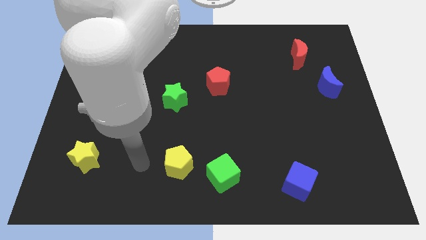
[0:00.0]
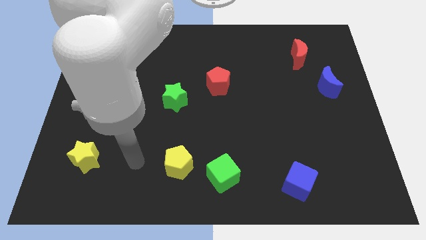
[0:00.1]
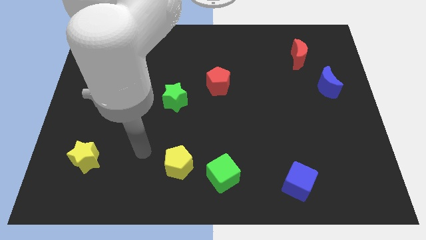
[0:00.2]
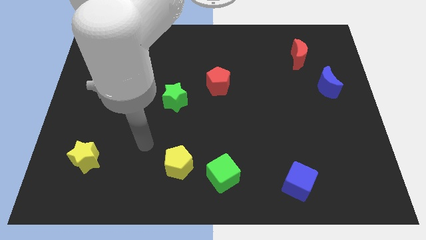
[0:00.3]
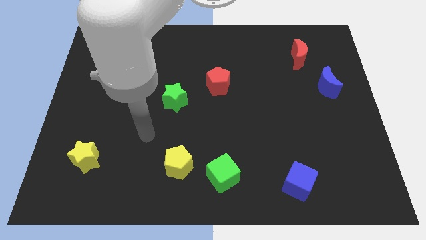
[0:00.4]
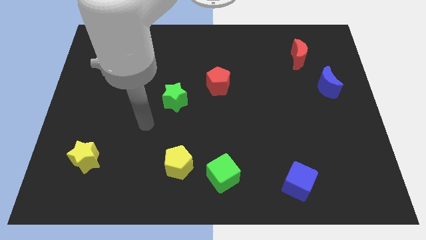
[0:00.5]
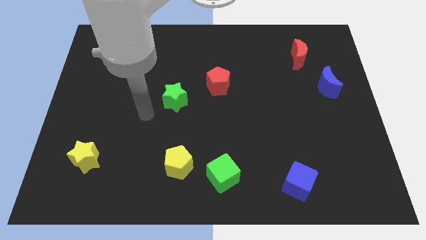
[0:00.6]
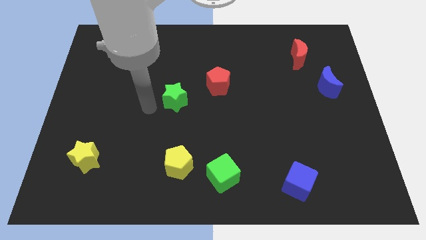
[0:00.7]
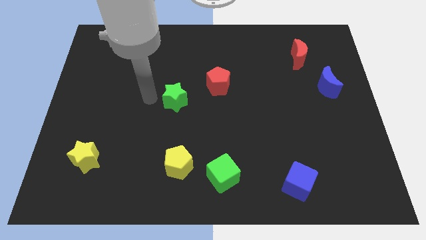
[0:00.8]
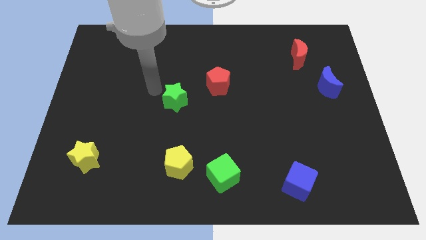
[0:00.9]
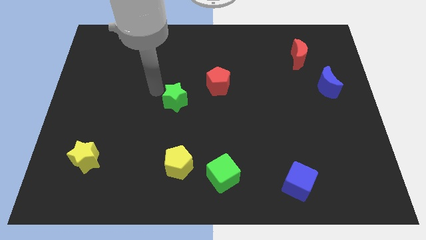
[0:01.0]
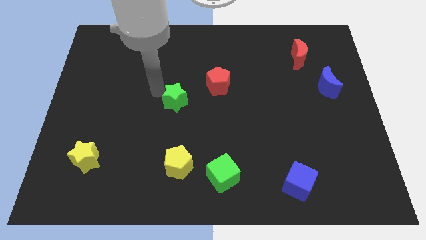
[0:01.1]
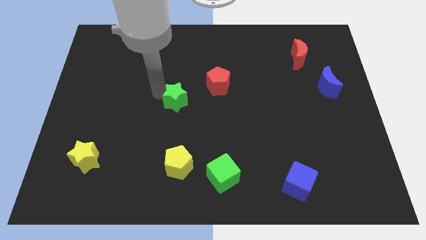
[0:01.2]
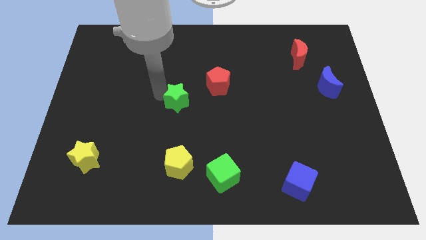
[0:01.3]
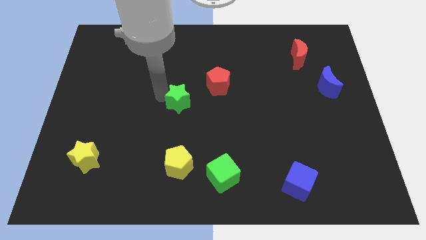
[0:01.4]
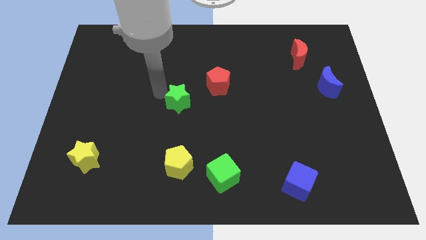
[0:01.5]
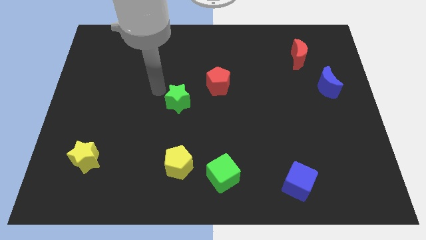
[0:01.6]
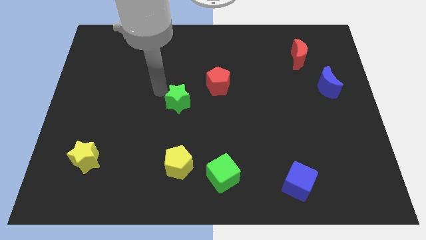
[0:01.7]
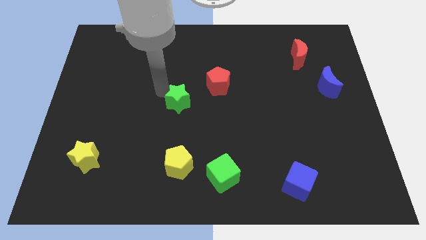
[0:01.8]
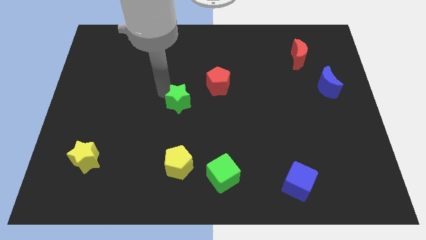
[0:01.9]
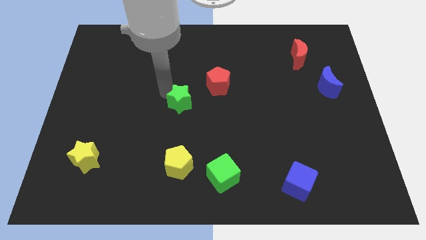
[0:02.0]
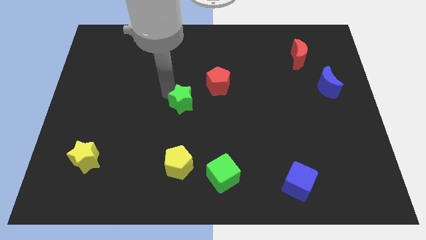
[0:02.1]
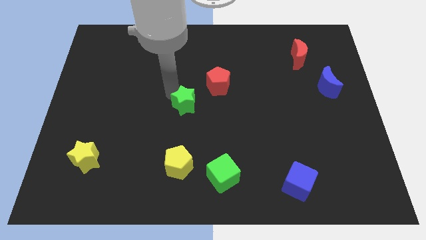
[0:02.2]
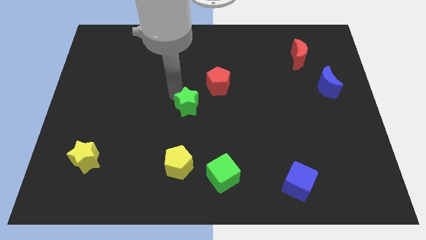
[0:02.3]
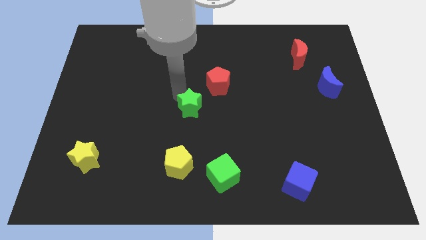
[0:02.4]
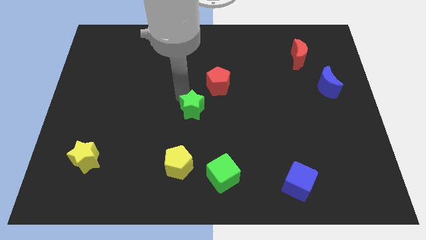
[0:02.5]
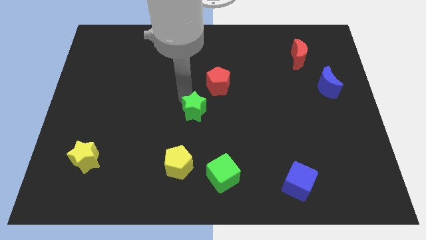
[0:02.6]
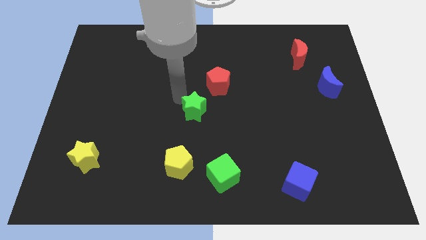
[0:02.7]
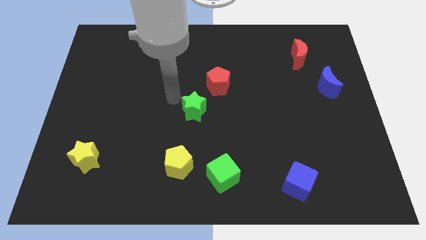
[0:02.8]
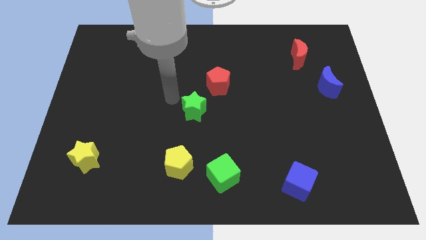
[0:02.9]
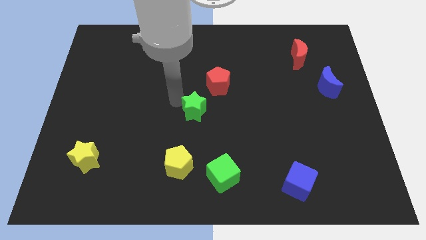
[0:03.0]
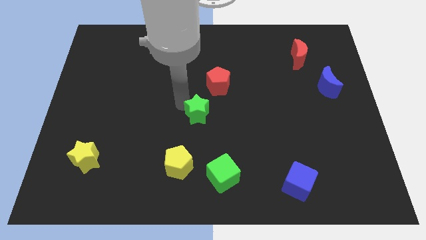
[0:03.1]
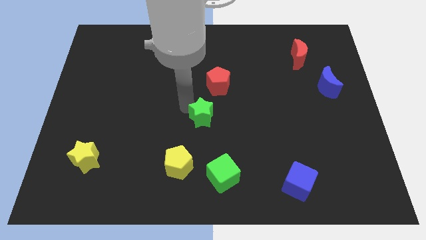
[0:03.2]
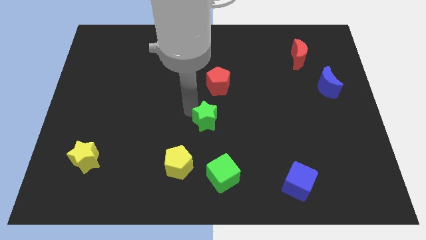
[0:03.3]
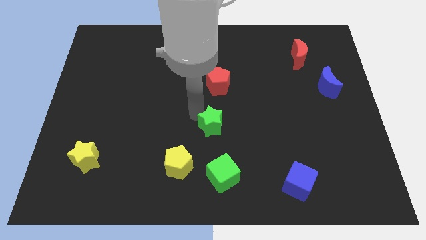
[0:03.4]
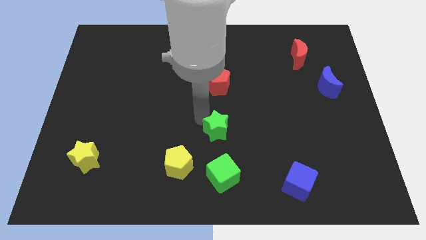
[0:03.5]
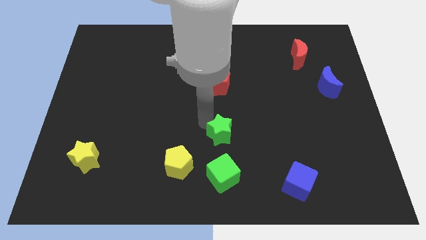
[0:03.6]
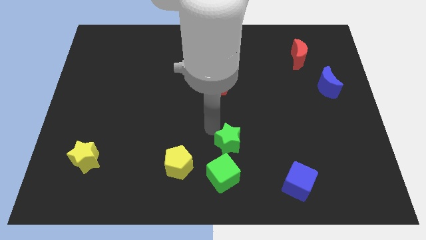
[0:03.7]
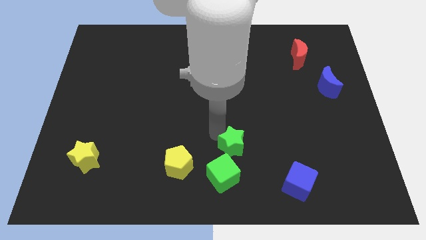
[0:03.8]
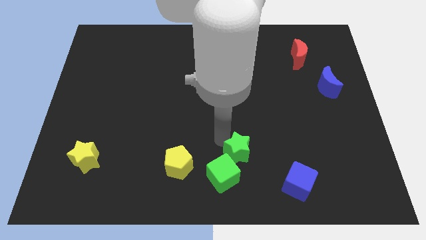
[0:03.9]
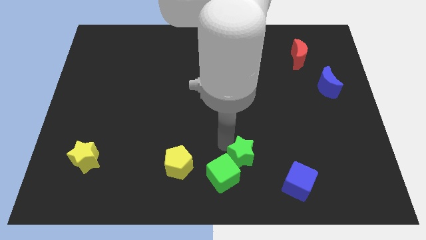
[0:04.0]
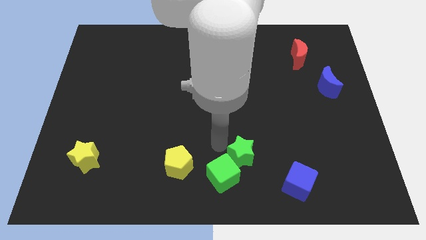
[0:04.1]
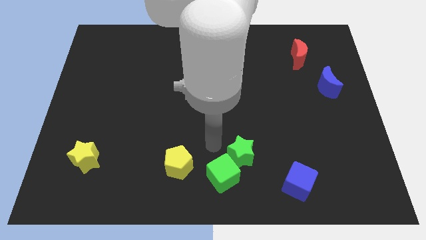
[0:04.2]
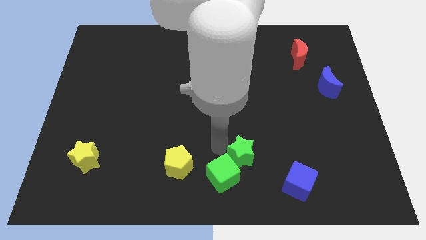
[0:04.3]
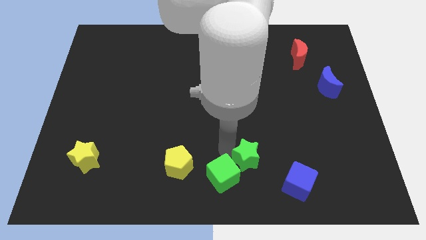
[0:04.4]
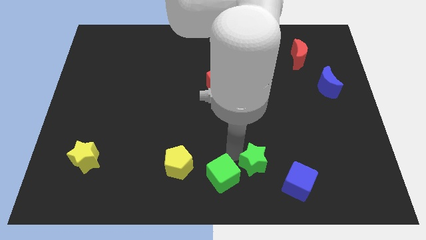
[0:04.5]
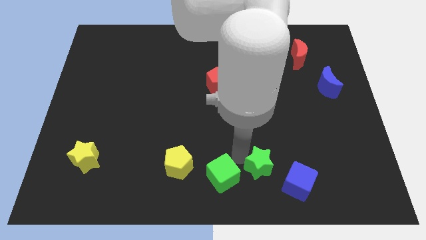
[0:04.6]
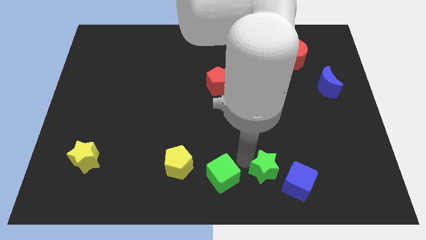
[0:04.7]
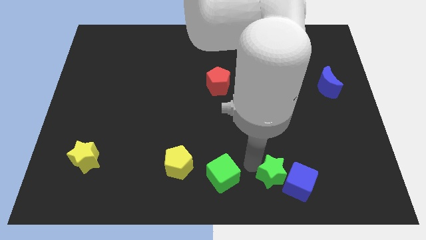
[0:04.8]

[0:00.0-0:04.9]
put the green star close to the blue cube

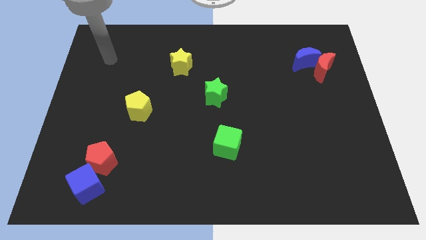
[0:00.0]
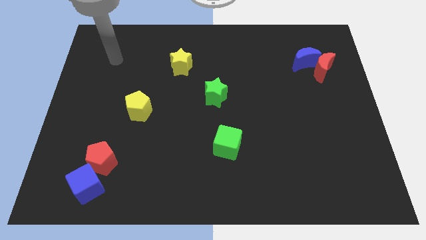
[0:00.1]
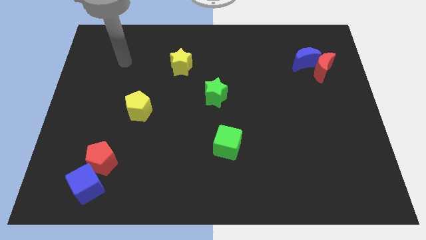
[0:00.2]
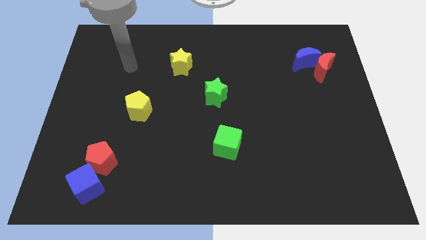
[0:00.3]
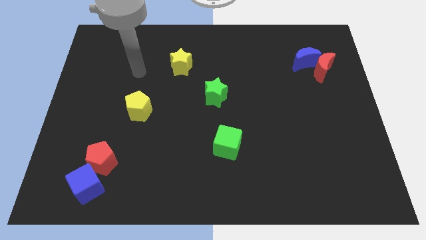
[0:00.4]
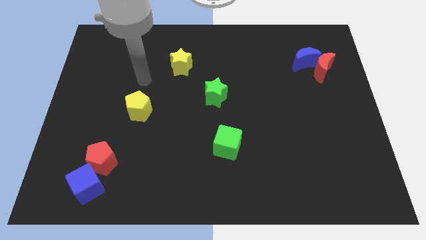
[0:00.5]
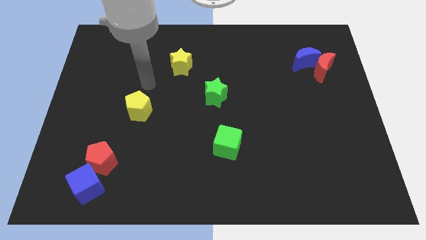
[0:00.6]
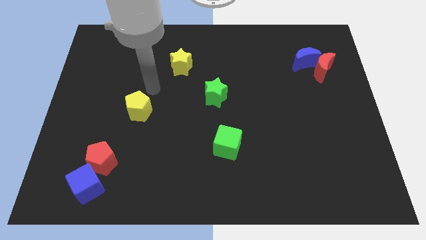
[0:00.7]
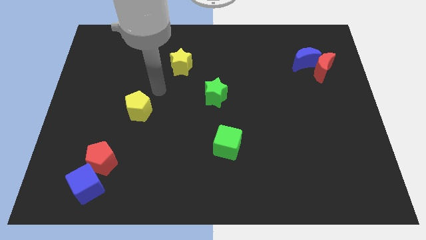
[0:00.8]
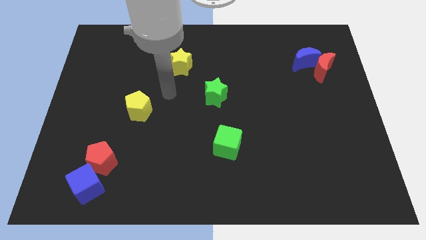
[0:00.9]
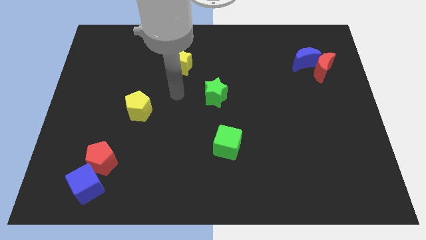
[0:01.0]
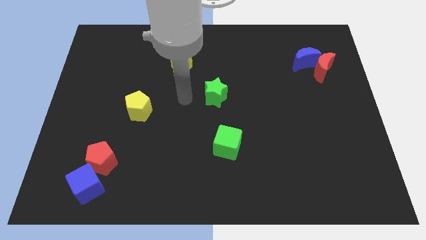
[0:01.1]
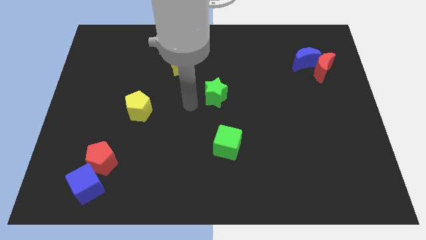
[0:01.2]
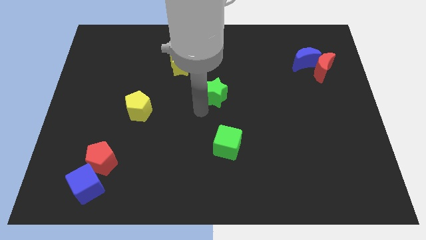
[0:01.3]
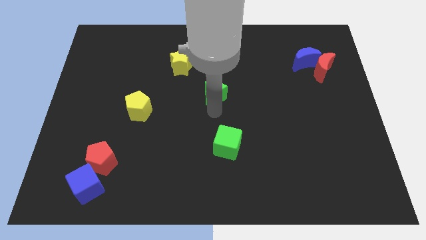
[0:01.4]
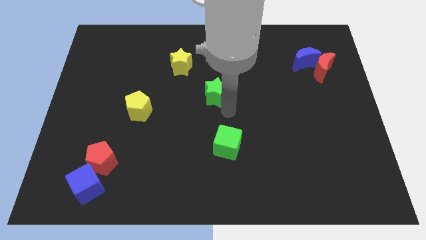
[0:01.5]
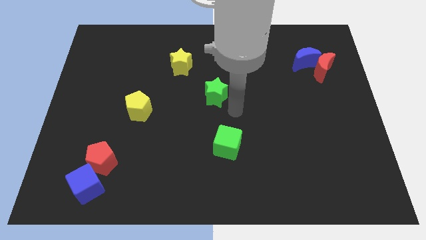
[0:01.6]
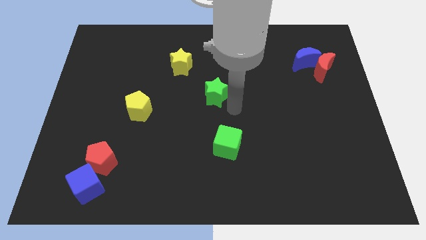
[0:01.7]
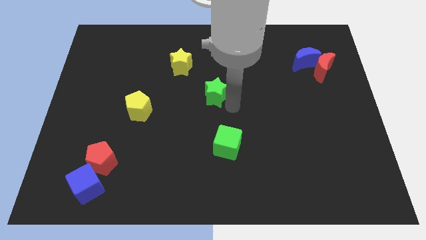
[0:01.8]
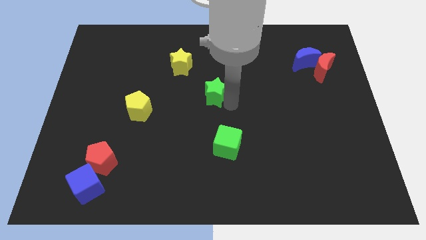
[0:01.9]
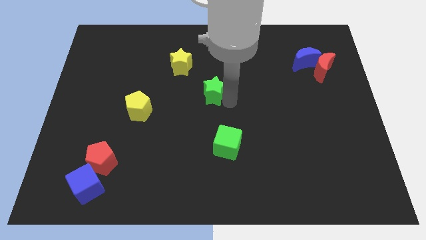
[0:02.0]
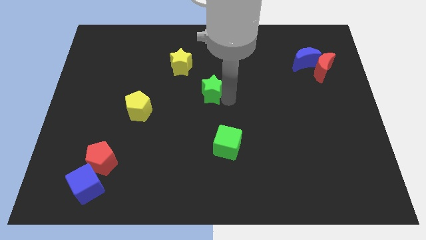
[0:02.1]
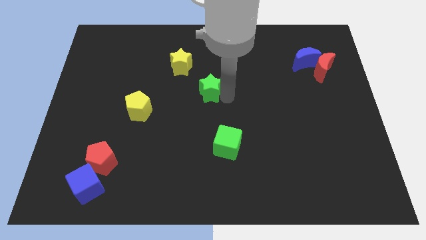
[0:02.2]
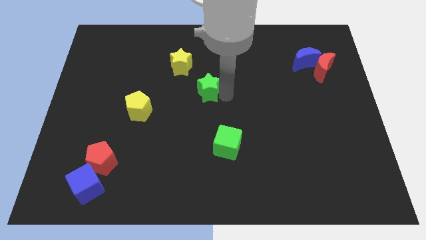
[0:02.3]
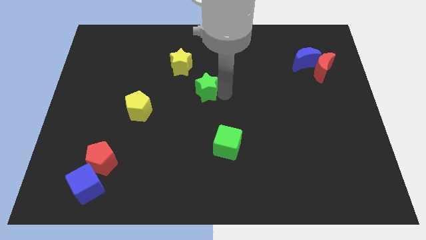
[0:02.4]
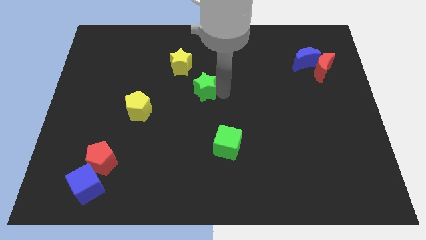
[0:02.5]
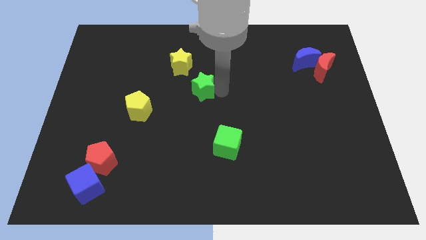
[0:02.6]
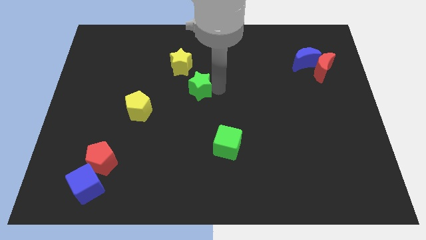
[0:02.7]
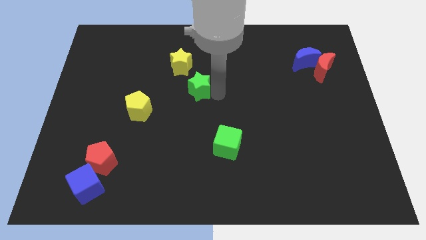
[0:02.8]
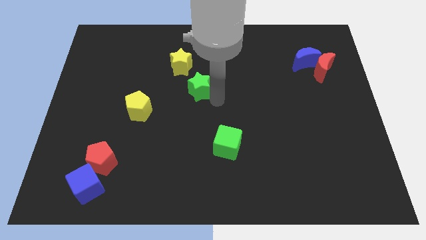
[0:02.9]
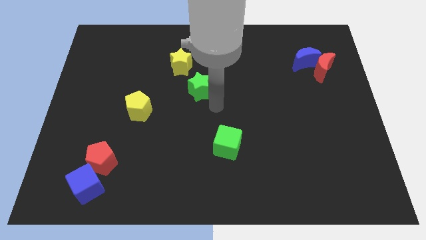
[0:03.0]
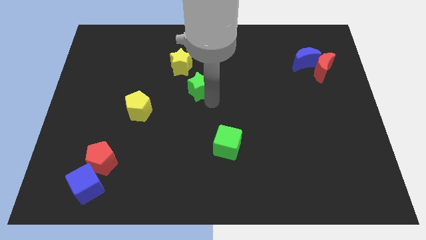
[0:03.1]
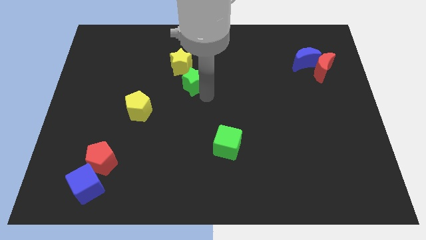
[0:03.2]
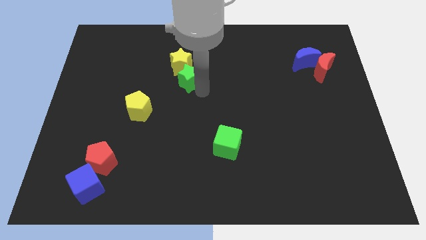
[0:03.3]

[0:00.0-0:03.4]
move the green star towards the yellow star
